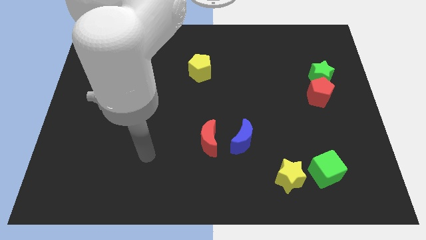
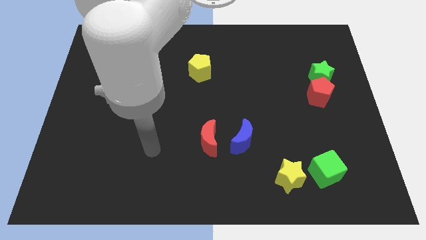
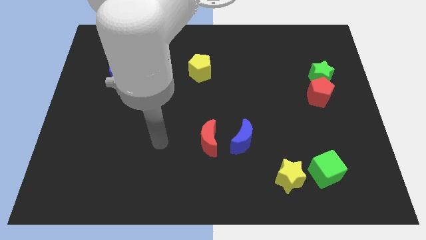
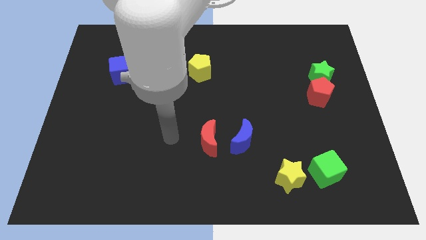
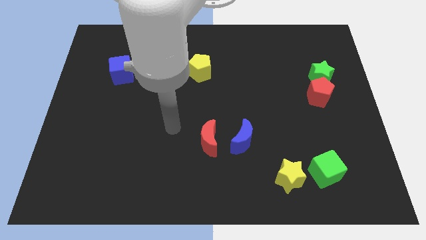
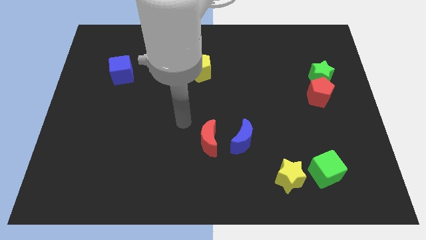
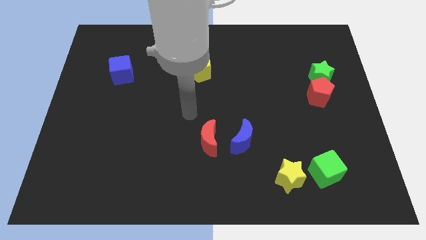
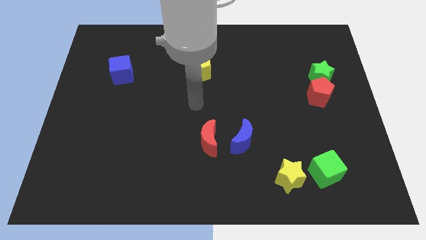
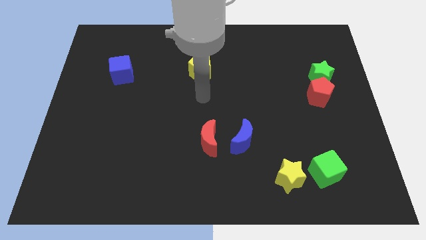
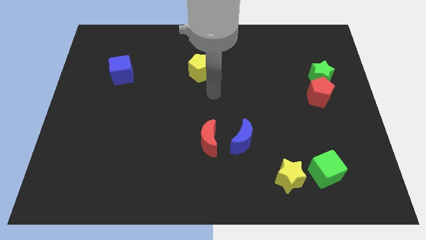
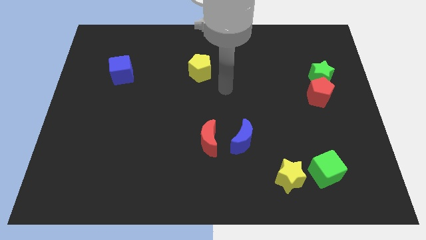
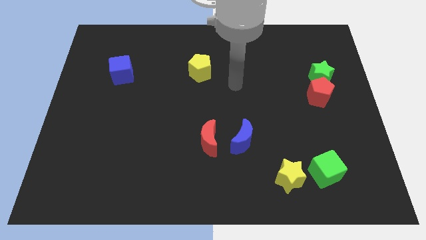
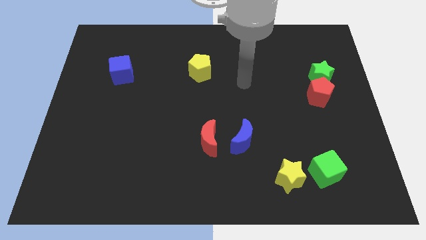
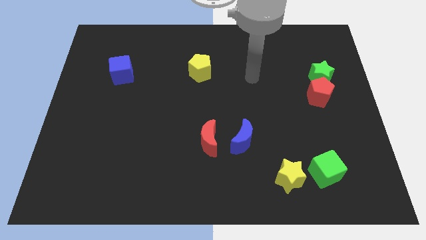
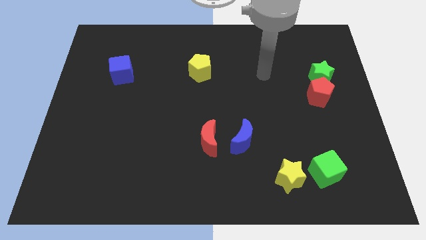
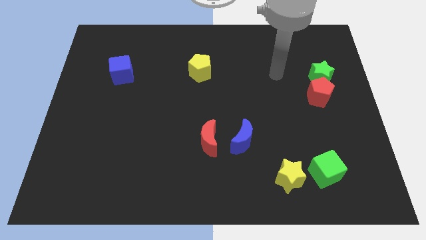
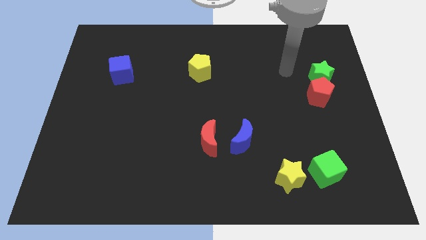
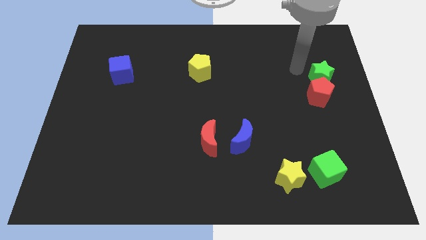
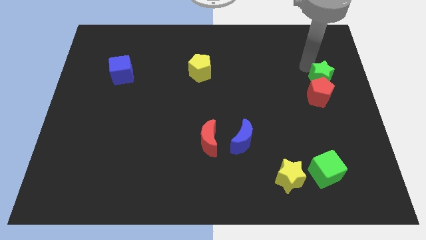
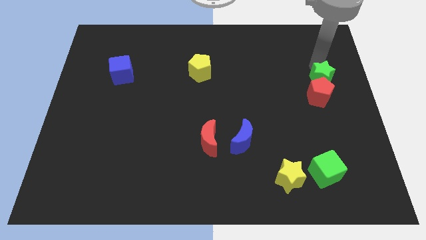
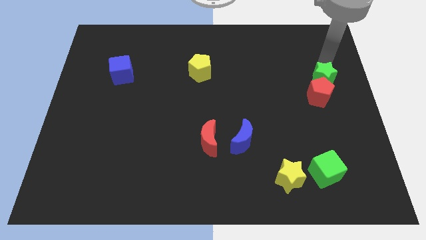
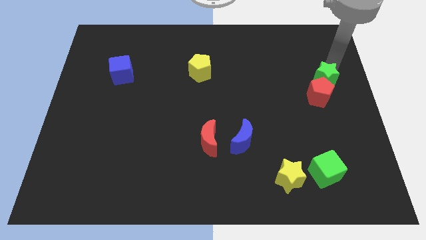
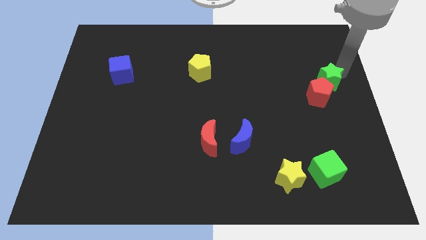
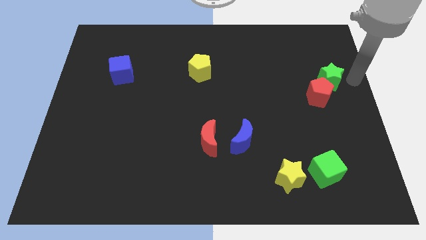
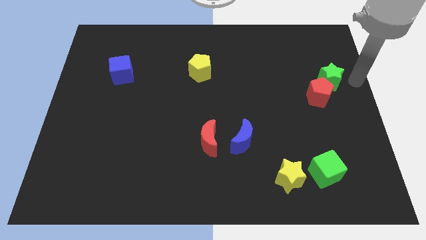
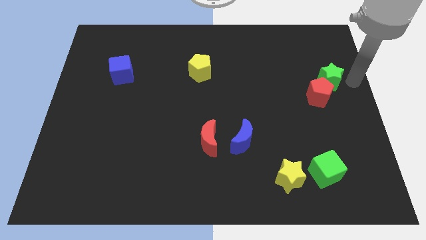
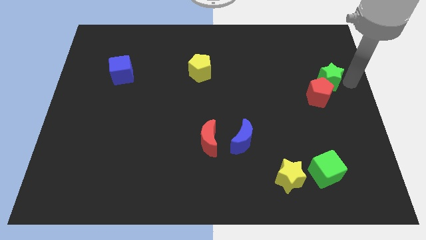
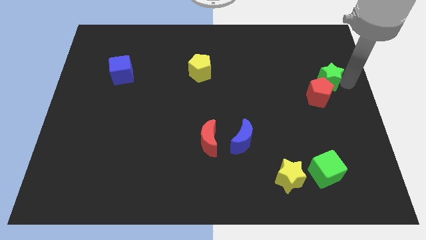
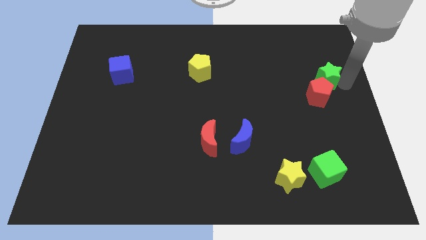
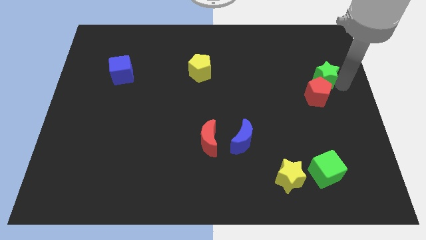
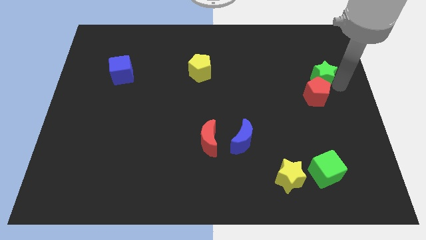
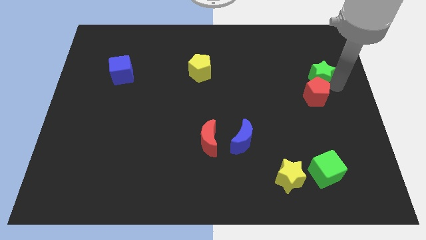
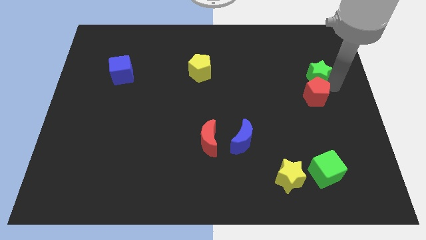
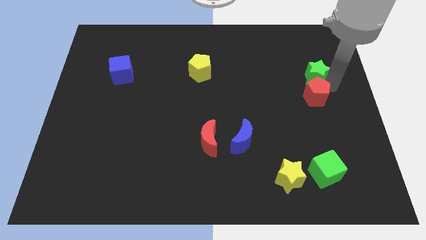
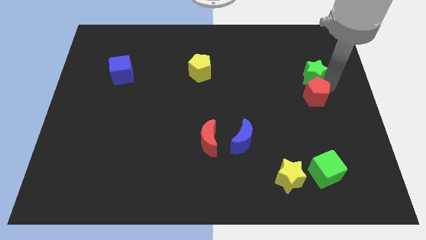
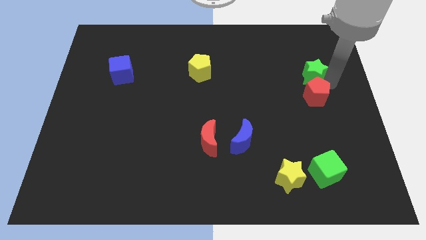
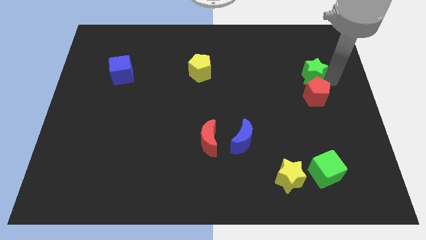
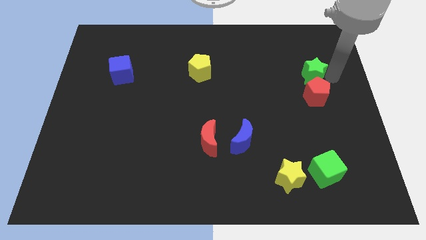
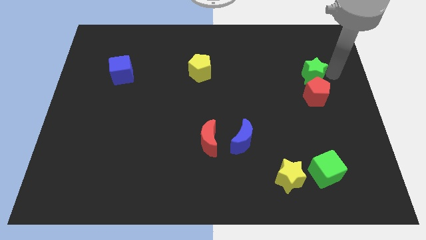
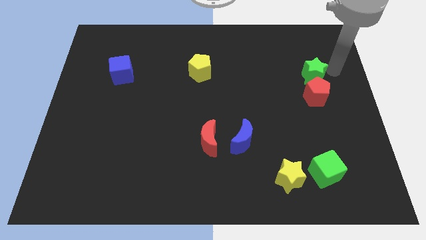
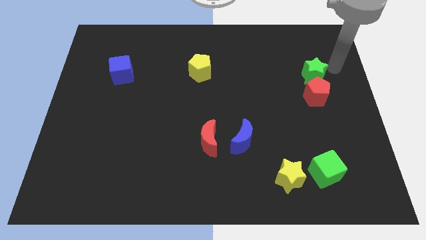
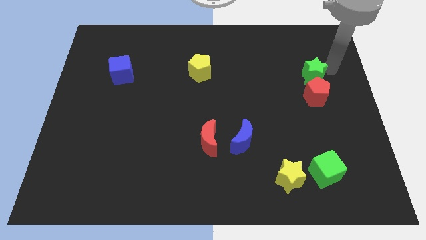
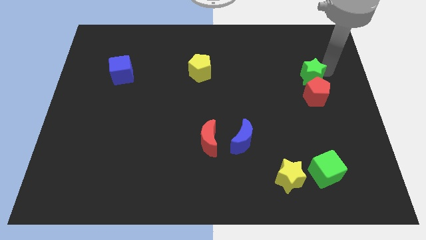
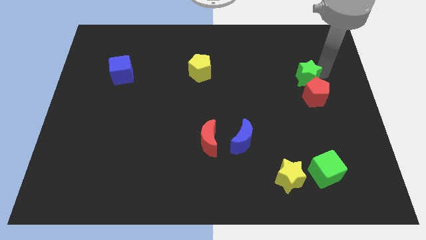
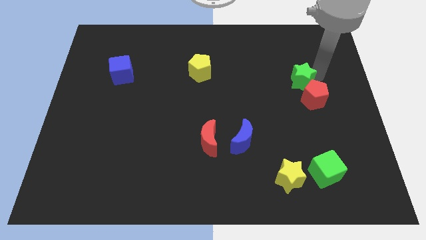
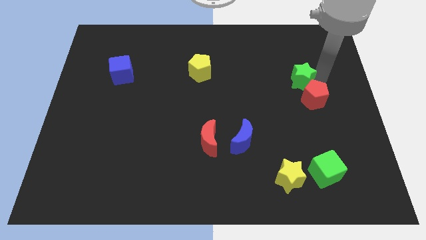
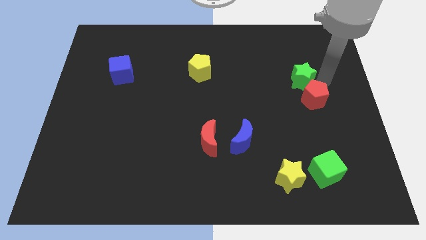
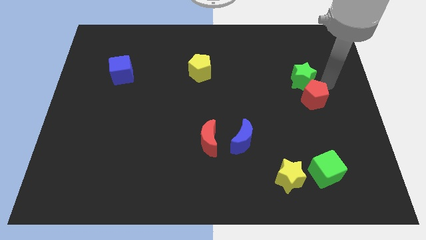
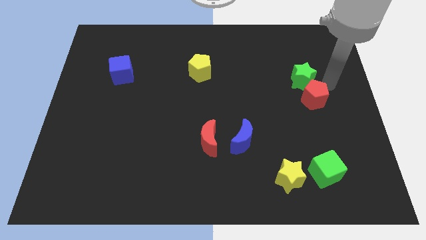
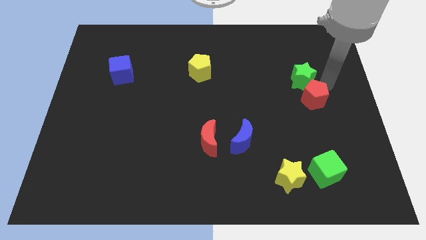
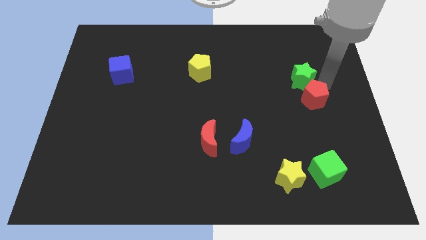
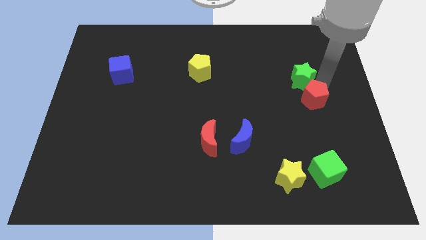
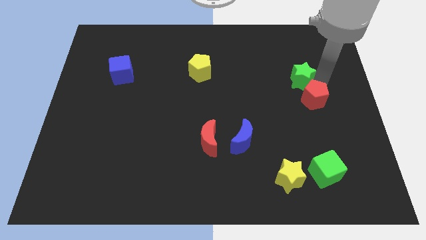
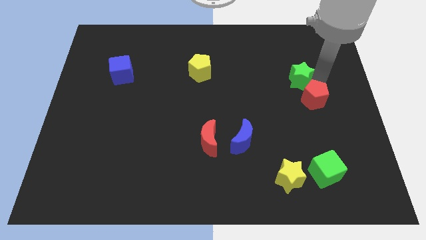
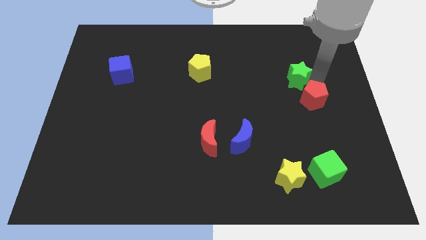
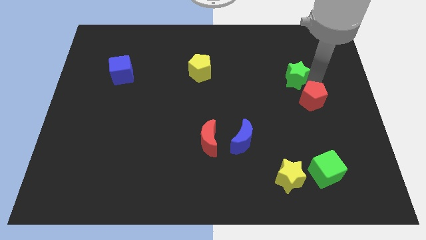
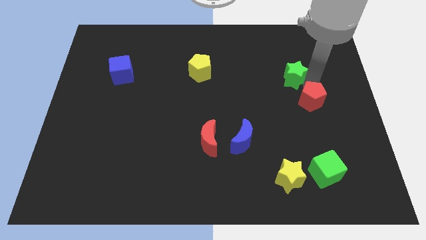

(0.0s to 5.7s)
slightly move the green star to the left

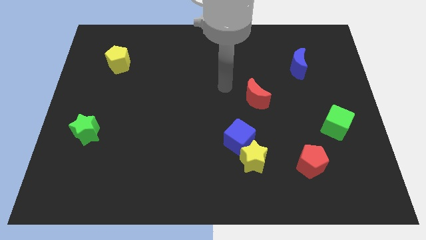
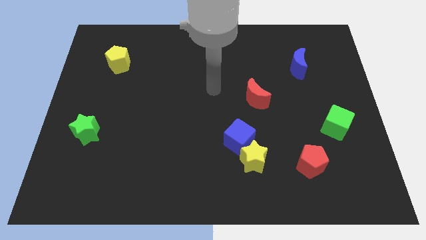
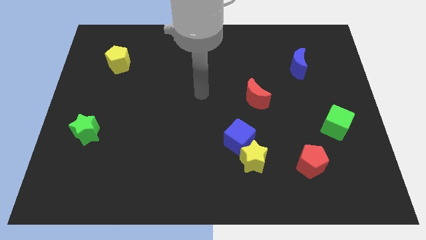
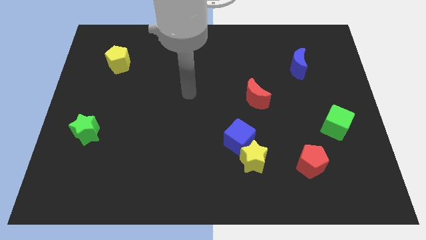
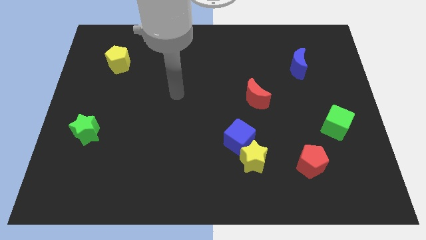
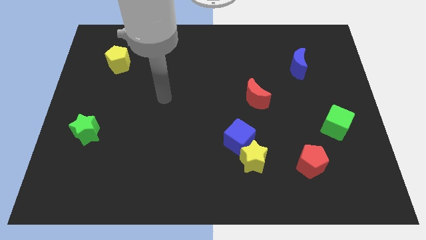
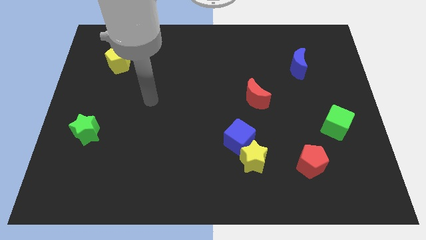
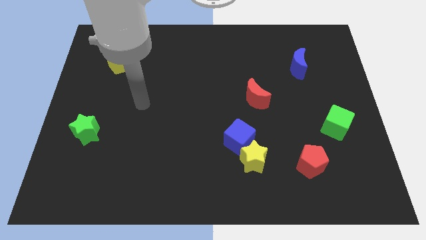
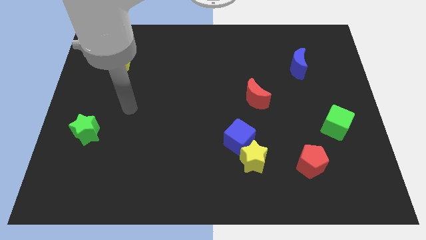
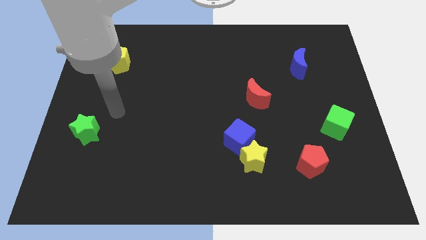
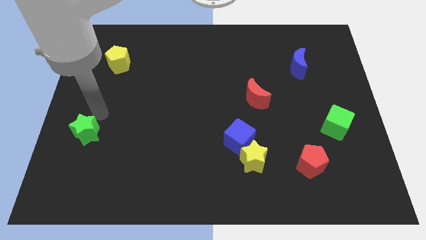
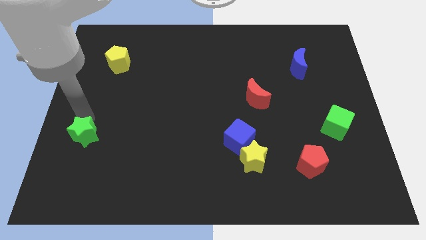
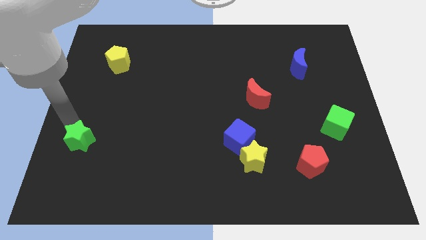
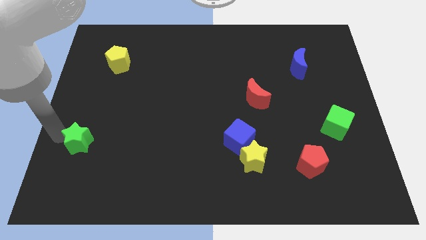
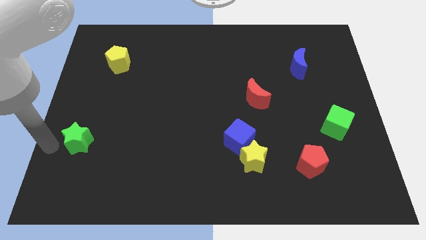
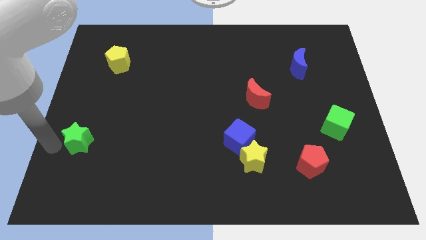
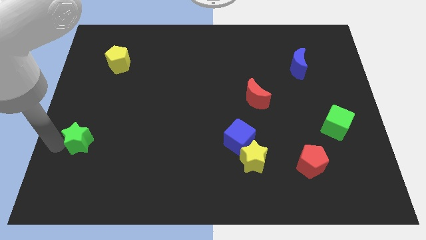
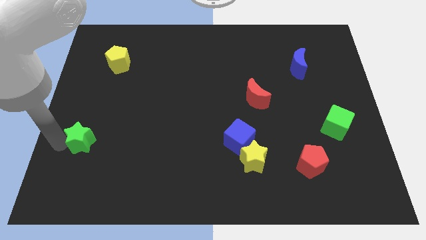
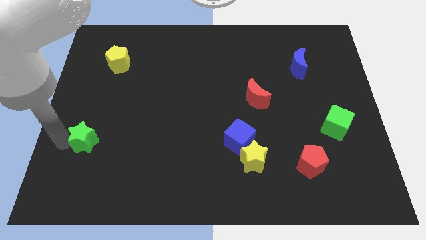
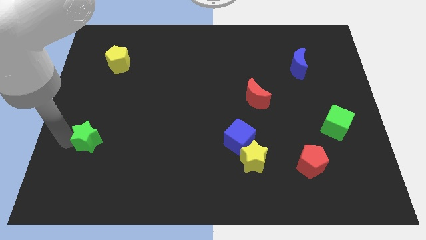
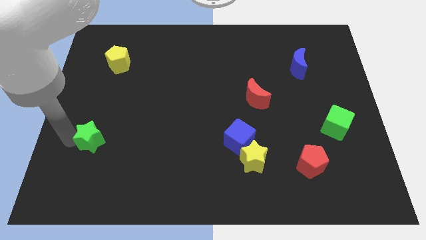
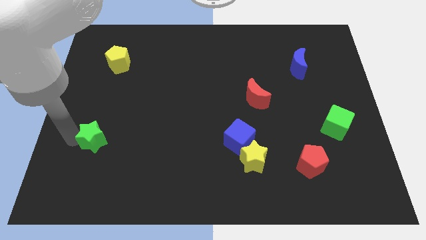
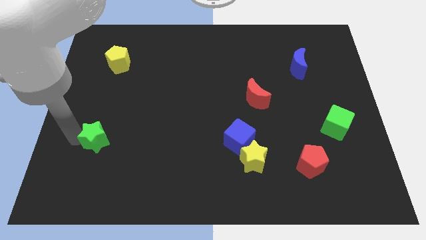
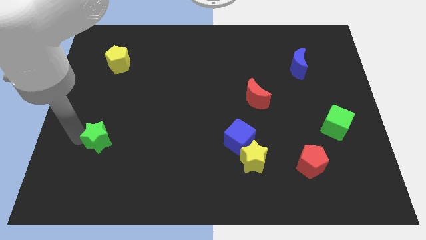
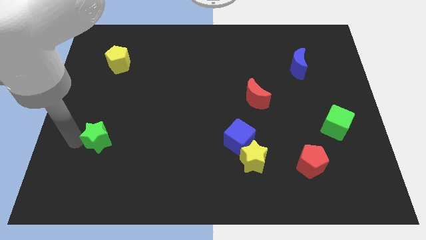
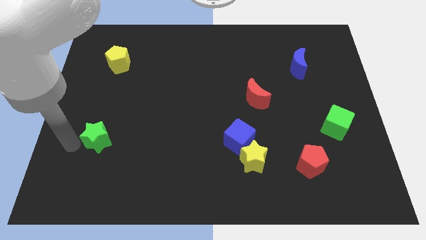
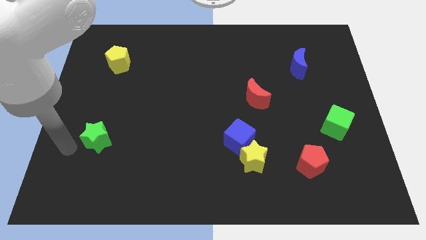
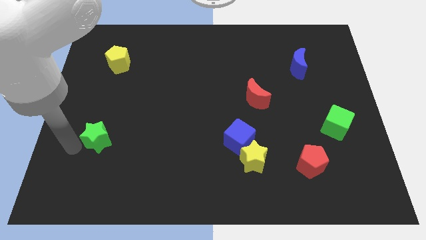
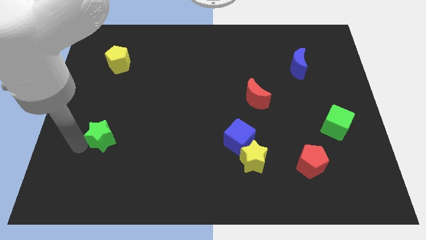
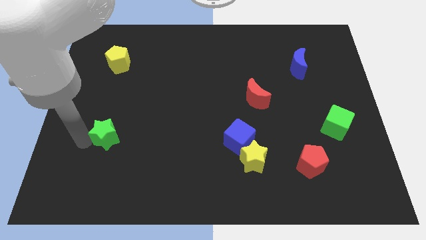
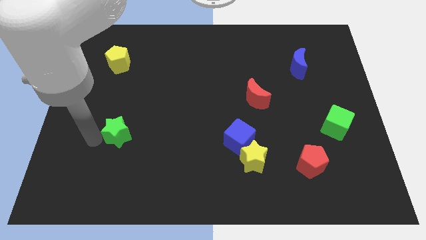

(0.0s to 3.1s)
slightly push the green star right
